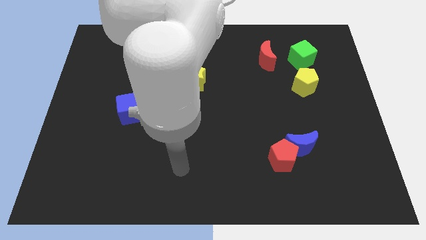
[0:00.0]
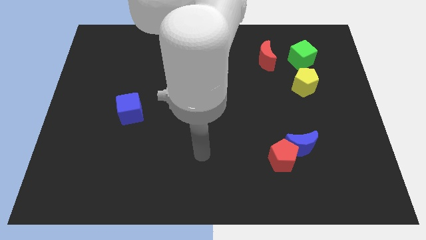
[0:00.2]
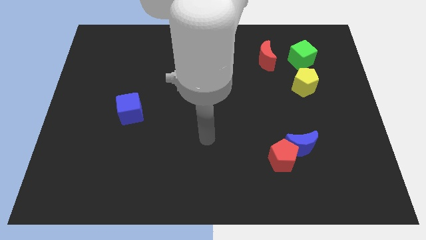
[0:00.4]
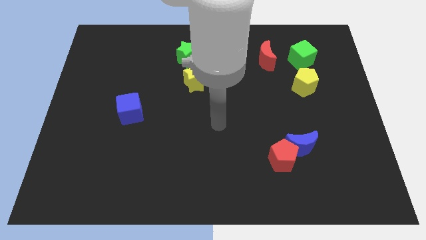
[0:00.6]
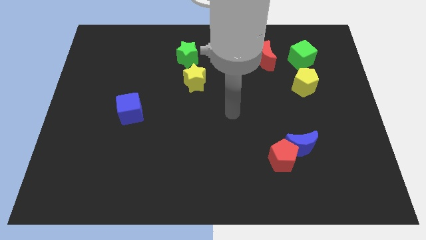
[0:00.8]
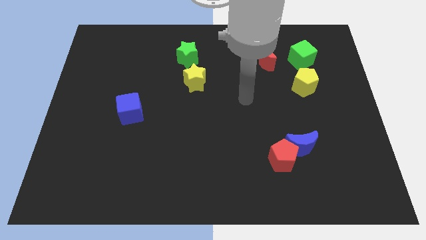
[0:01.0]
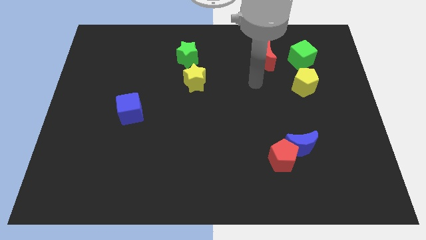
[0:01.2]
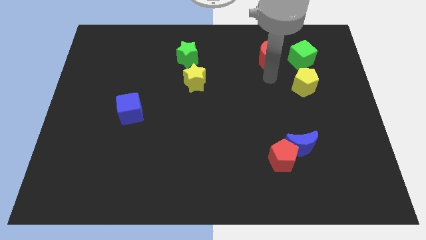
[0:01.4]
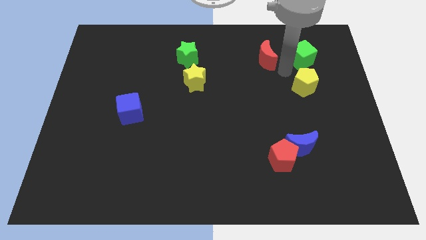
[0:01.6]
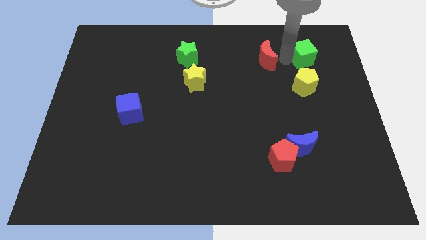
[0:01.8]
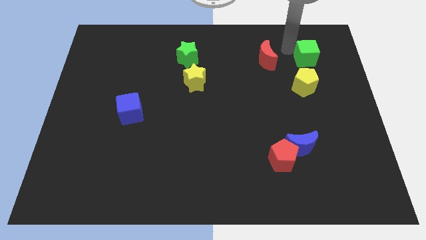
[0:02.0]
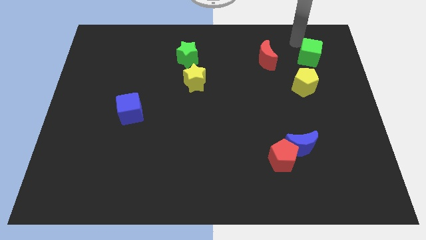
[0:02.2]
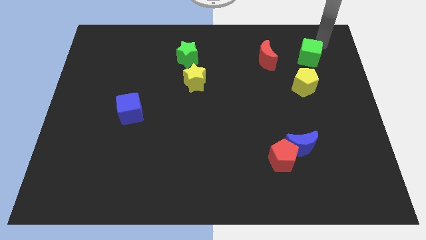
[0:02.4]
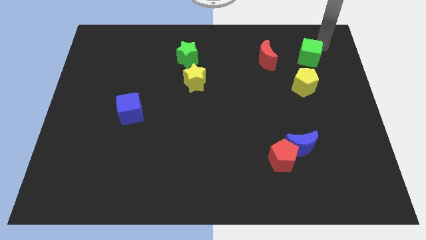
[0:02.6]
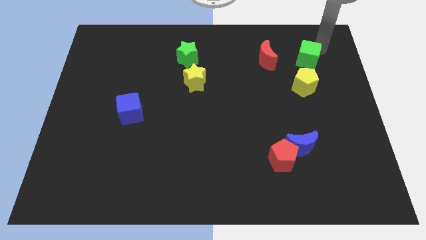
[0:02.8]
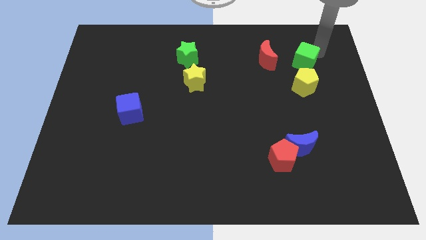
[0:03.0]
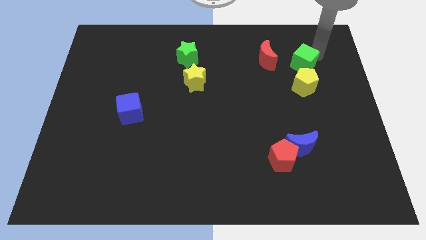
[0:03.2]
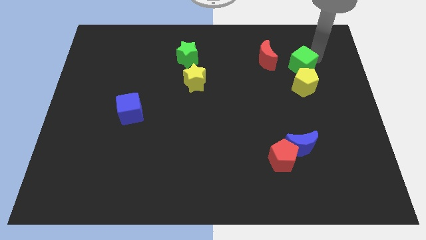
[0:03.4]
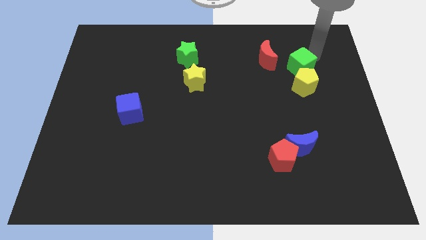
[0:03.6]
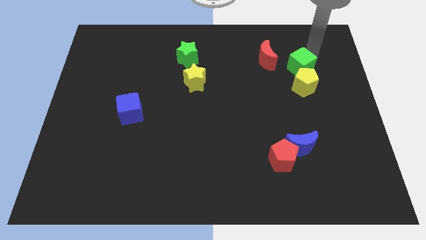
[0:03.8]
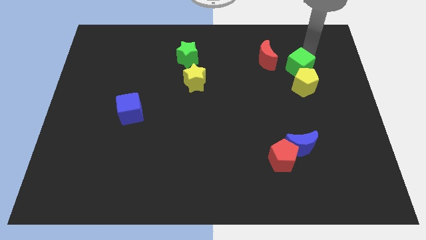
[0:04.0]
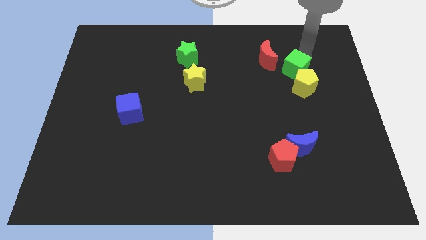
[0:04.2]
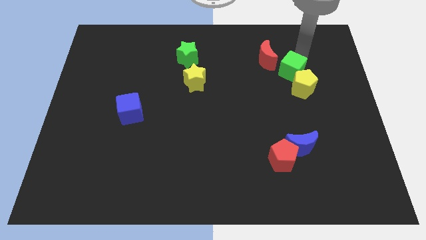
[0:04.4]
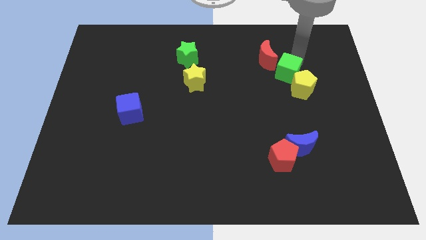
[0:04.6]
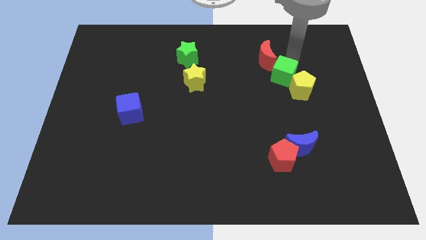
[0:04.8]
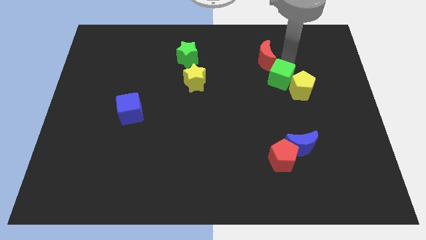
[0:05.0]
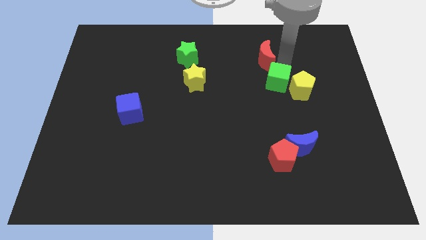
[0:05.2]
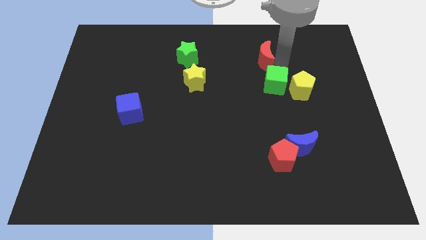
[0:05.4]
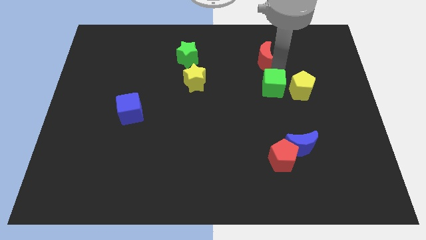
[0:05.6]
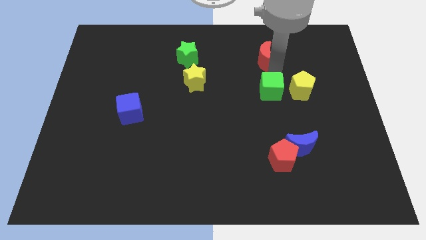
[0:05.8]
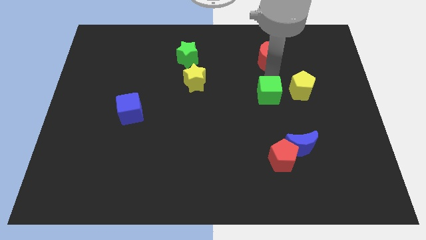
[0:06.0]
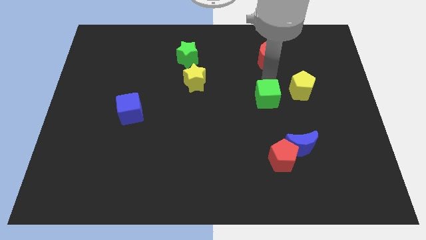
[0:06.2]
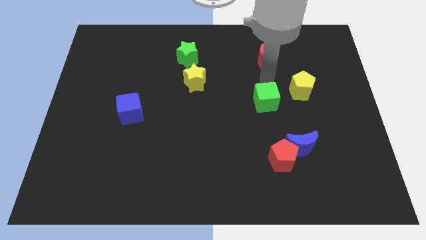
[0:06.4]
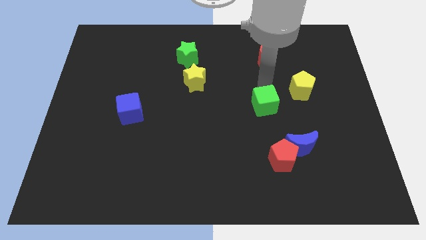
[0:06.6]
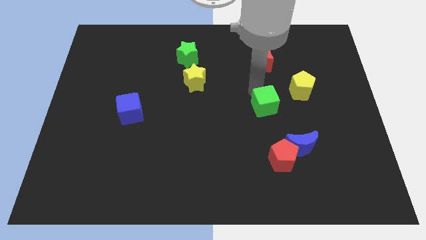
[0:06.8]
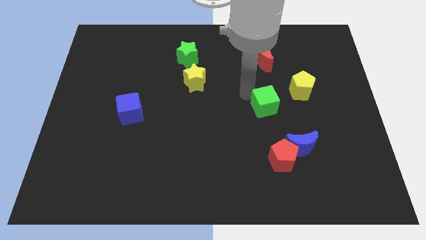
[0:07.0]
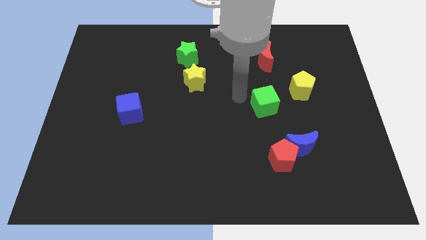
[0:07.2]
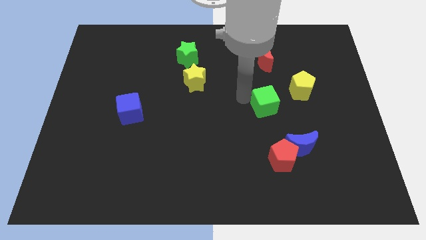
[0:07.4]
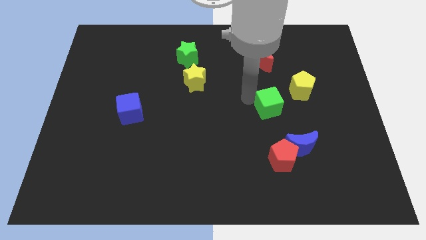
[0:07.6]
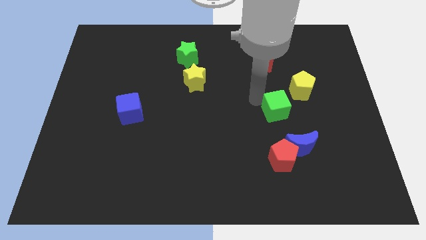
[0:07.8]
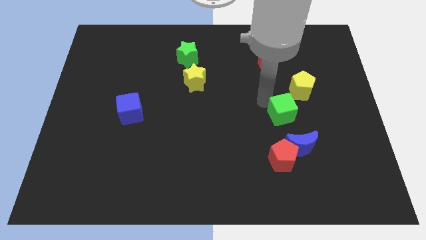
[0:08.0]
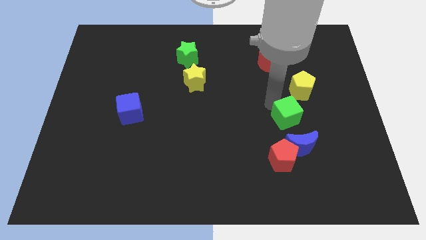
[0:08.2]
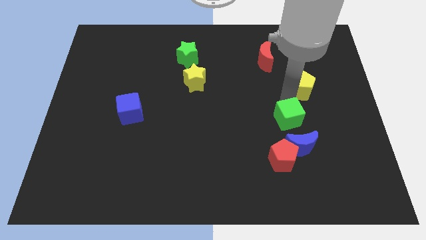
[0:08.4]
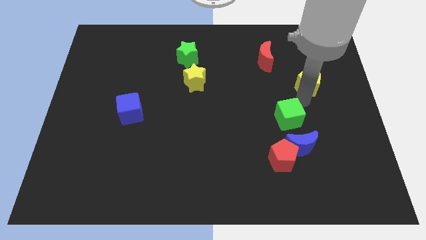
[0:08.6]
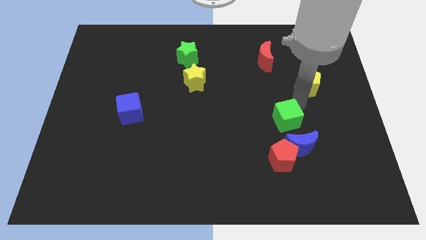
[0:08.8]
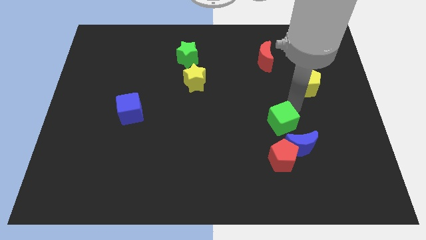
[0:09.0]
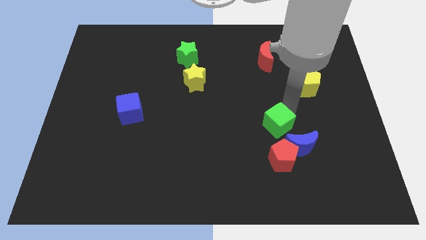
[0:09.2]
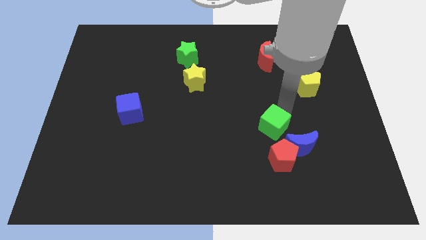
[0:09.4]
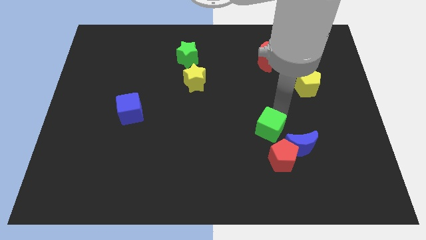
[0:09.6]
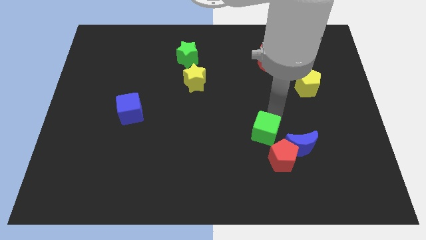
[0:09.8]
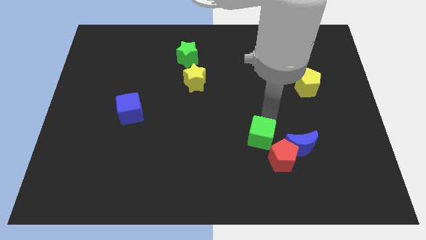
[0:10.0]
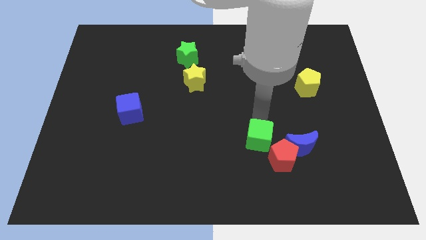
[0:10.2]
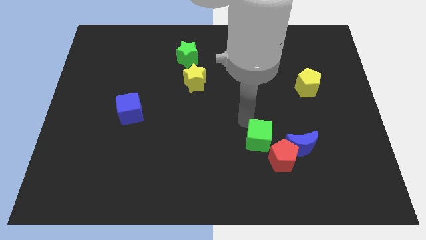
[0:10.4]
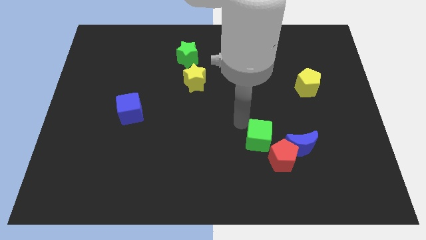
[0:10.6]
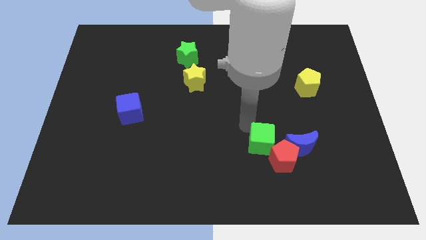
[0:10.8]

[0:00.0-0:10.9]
put the green cube close to the red pentagon

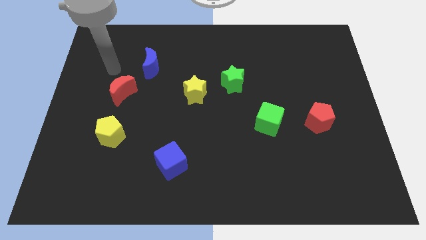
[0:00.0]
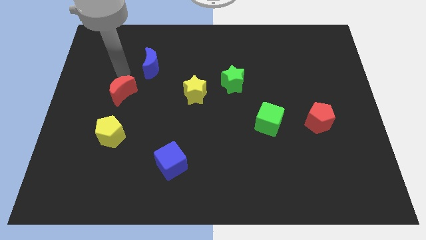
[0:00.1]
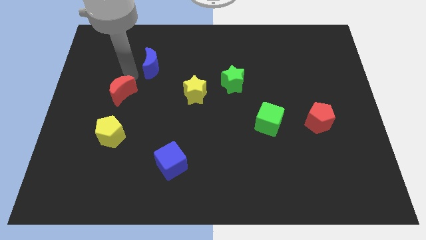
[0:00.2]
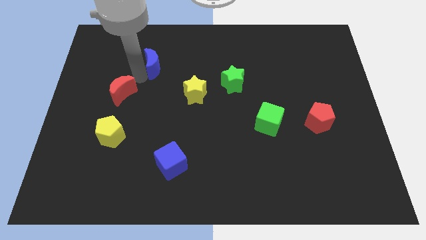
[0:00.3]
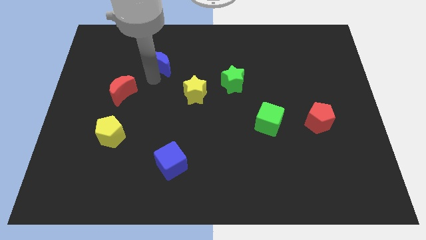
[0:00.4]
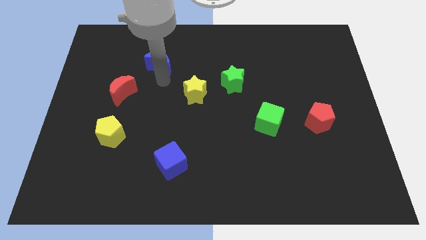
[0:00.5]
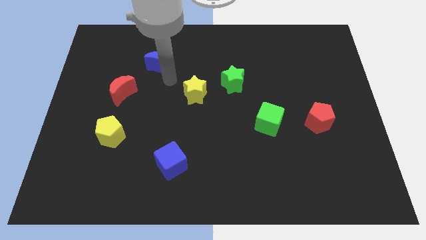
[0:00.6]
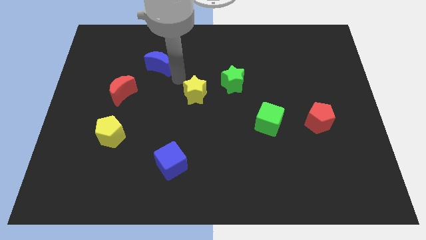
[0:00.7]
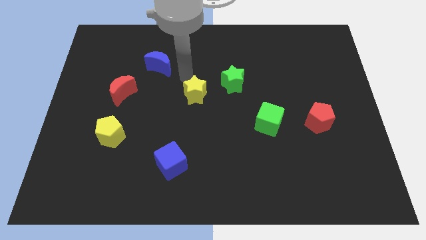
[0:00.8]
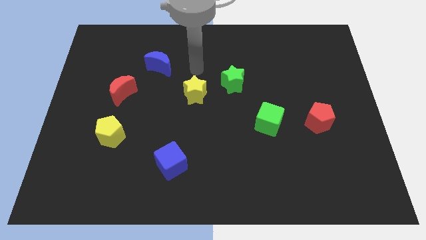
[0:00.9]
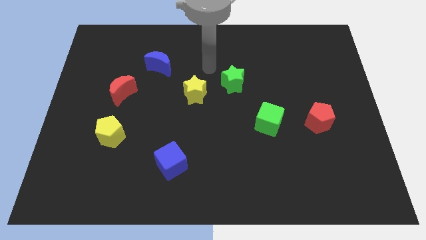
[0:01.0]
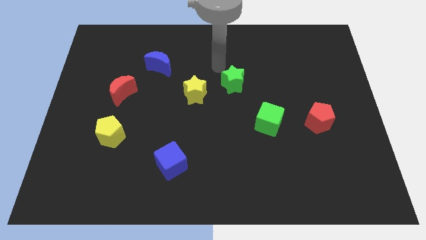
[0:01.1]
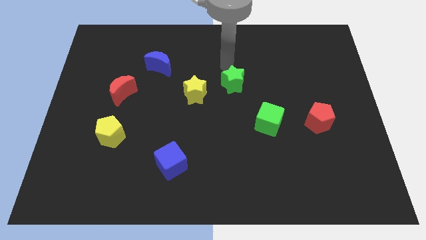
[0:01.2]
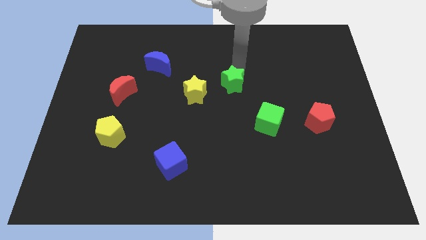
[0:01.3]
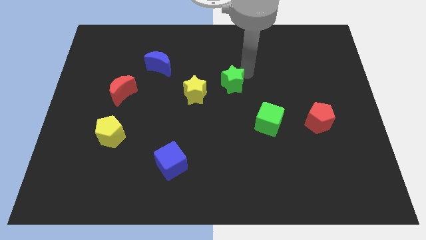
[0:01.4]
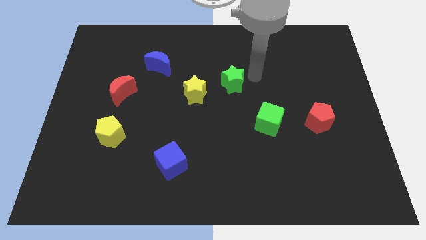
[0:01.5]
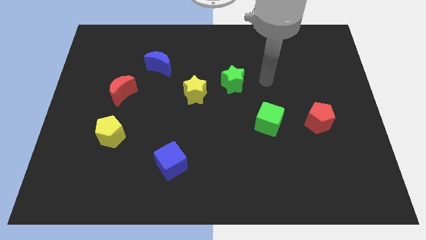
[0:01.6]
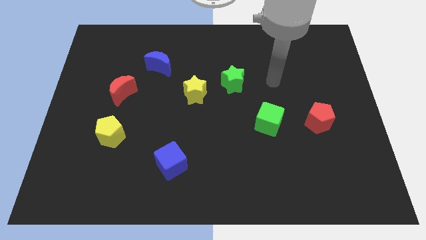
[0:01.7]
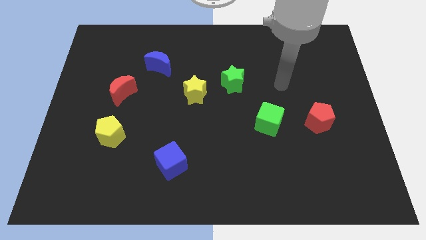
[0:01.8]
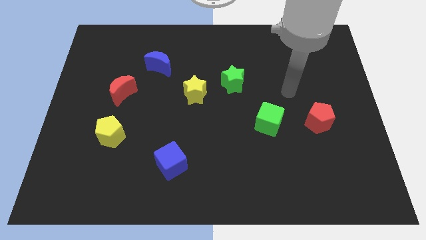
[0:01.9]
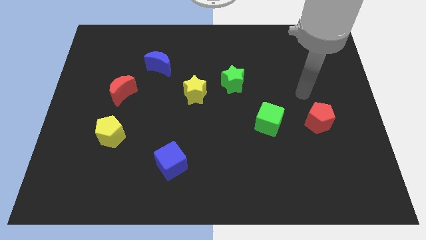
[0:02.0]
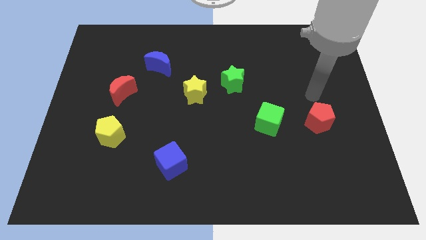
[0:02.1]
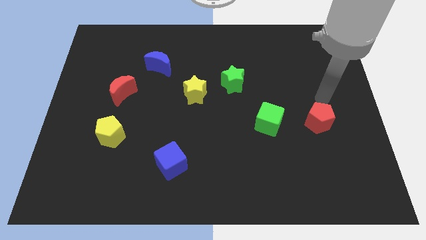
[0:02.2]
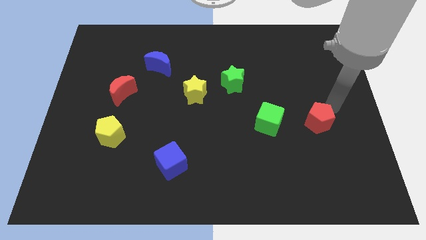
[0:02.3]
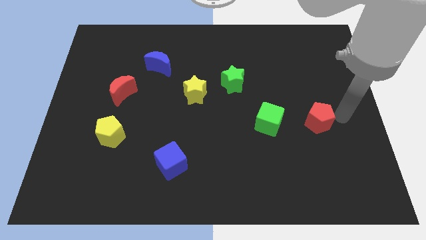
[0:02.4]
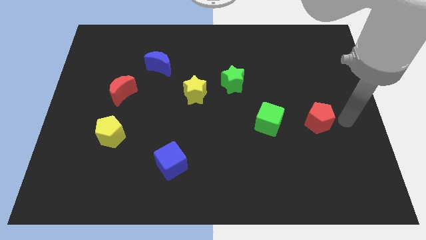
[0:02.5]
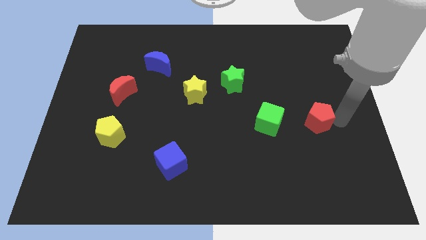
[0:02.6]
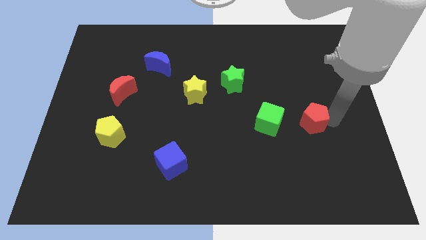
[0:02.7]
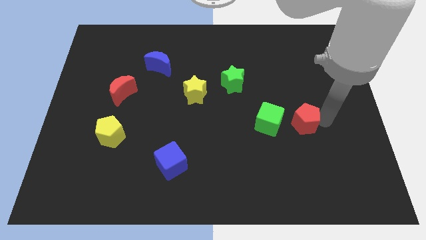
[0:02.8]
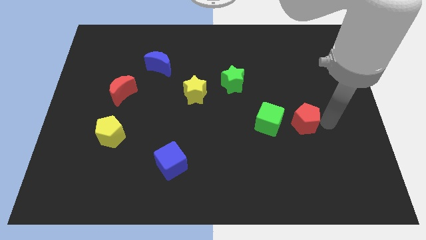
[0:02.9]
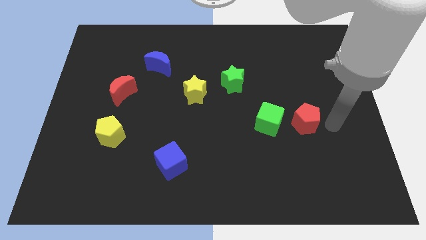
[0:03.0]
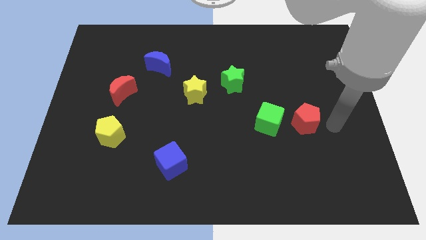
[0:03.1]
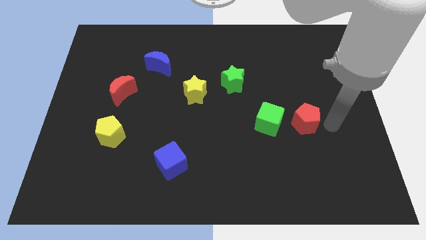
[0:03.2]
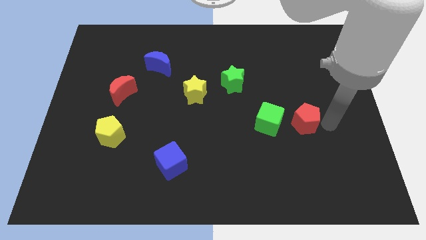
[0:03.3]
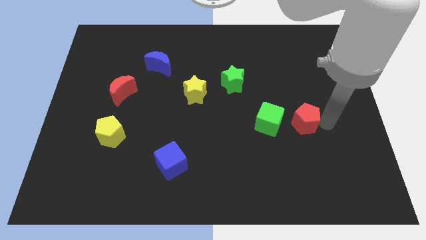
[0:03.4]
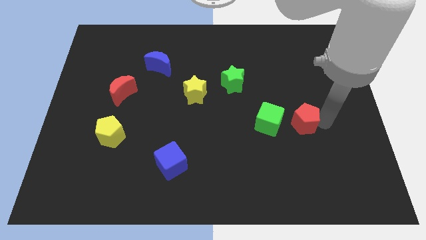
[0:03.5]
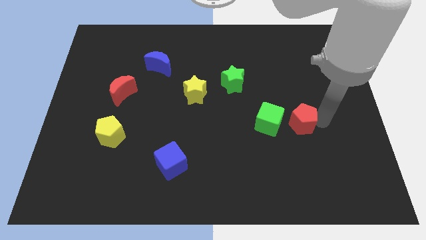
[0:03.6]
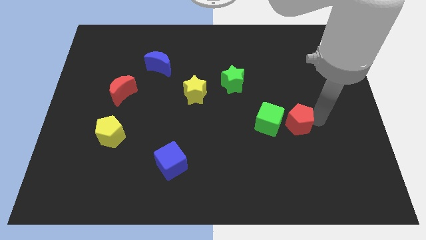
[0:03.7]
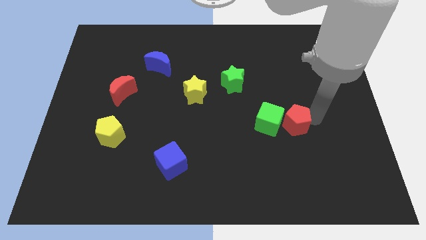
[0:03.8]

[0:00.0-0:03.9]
put the red pentagon close to the green cube
